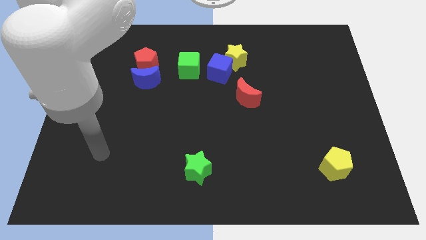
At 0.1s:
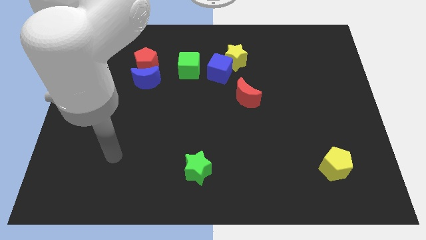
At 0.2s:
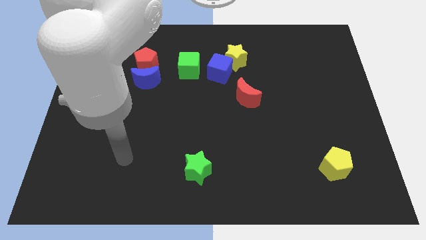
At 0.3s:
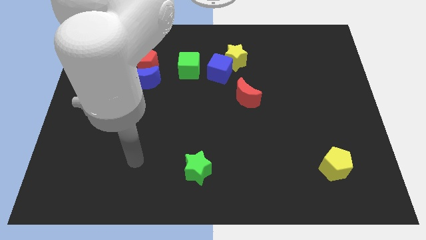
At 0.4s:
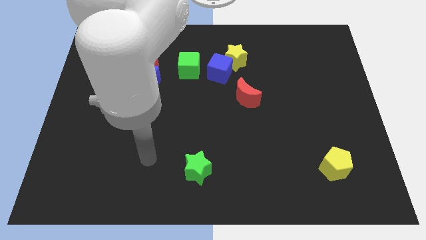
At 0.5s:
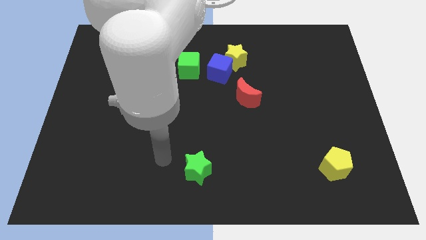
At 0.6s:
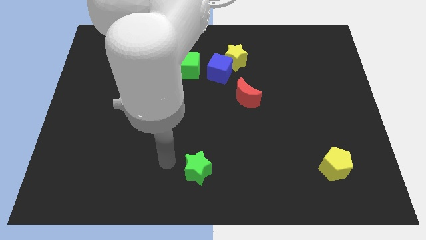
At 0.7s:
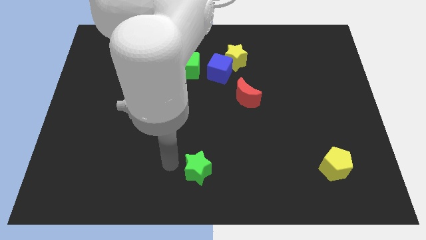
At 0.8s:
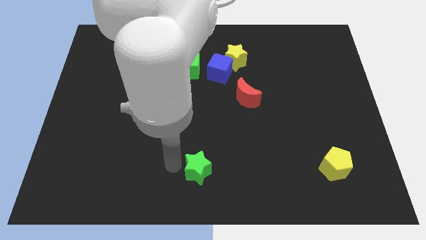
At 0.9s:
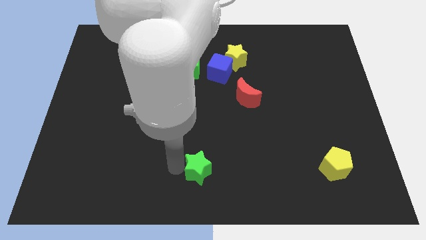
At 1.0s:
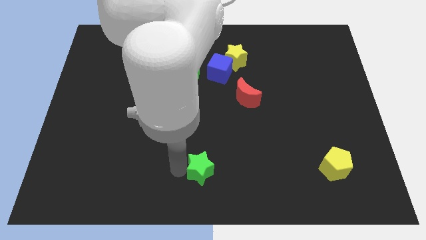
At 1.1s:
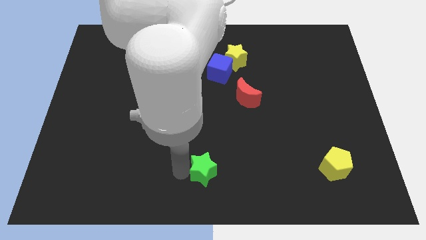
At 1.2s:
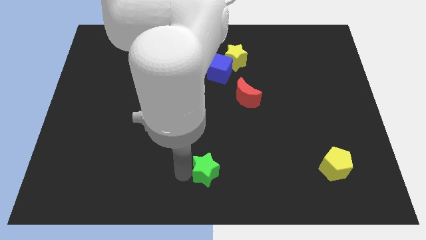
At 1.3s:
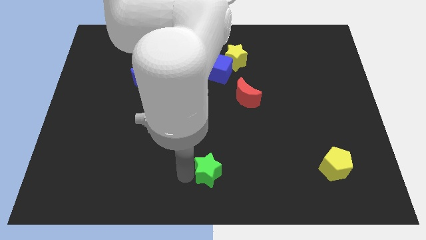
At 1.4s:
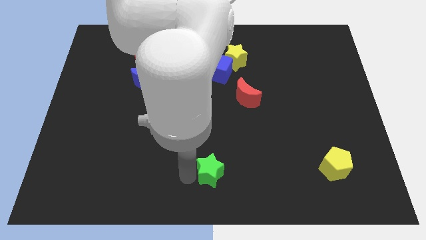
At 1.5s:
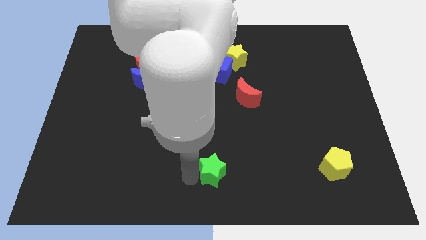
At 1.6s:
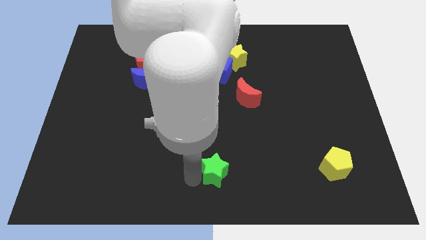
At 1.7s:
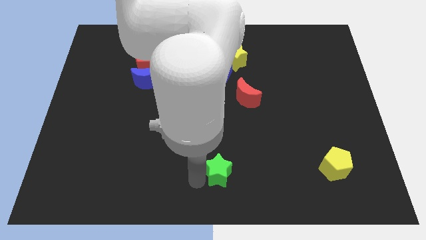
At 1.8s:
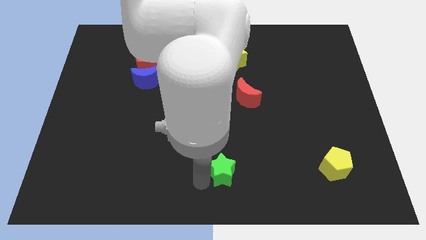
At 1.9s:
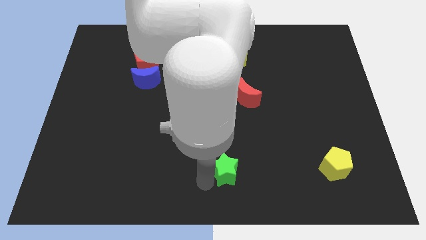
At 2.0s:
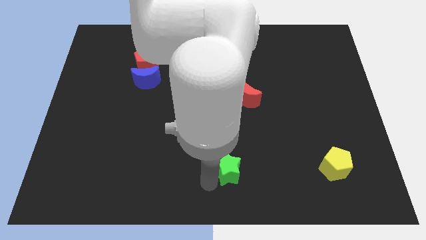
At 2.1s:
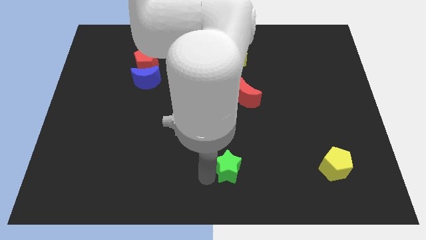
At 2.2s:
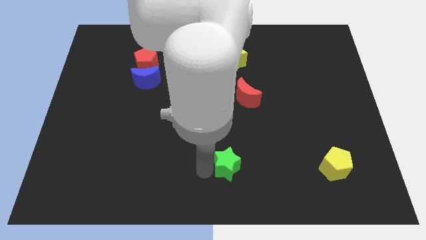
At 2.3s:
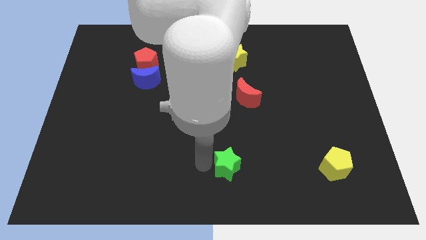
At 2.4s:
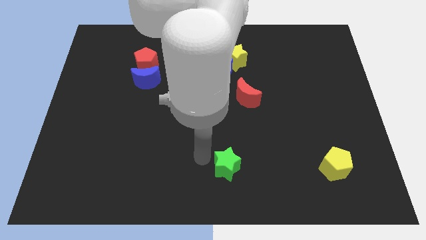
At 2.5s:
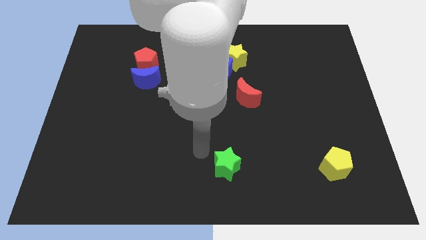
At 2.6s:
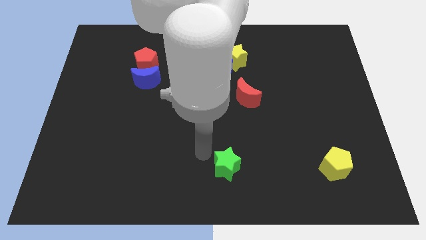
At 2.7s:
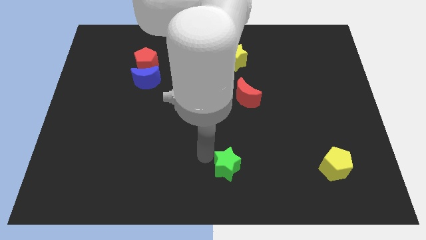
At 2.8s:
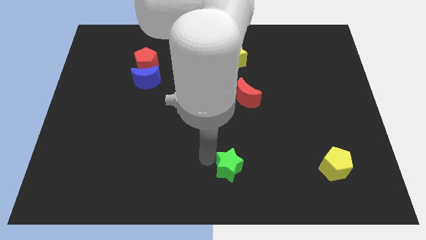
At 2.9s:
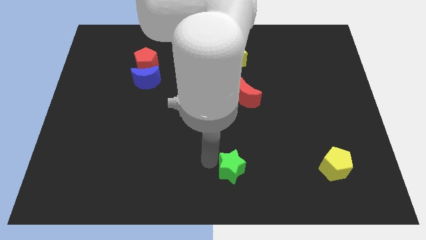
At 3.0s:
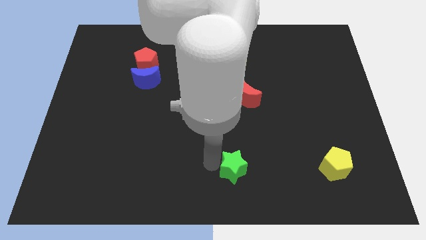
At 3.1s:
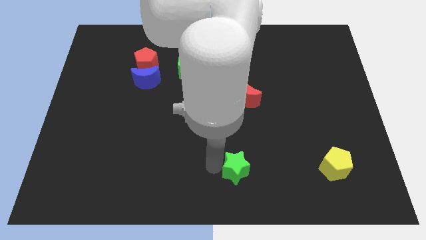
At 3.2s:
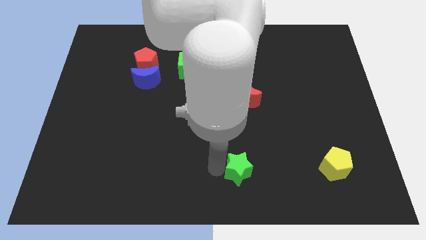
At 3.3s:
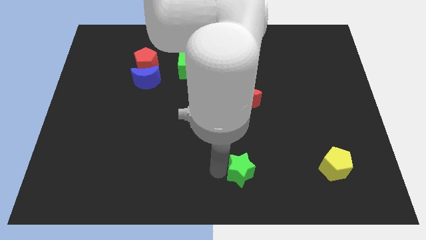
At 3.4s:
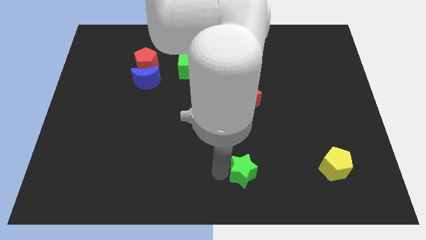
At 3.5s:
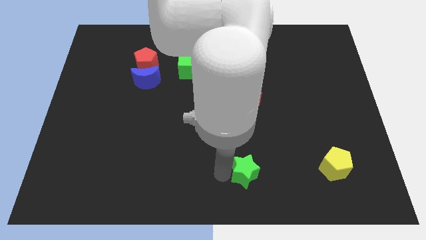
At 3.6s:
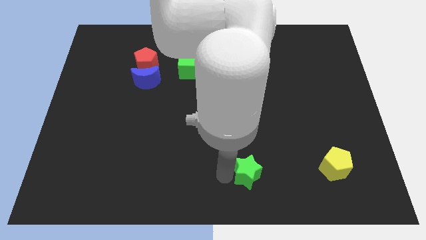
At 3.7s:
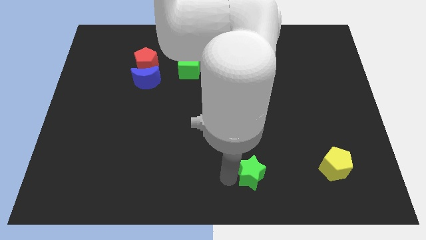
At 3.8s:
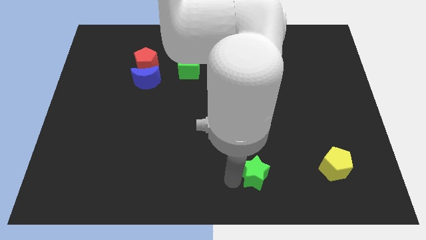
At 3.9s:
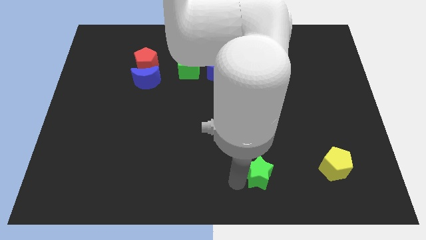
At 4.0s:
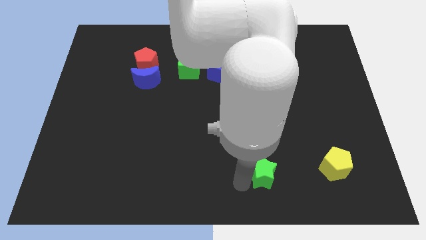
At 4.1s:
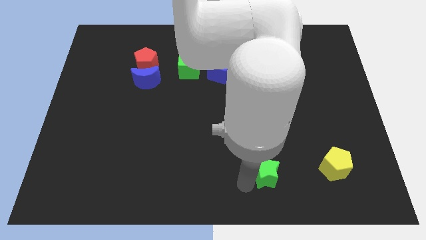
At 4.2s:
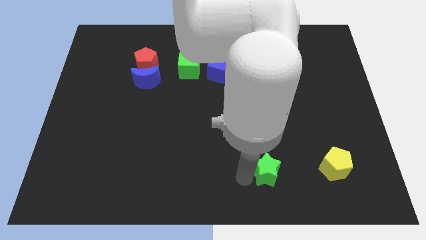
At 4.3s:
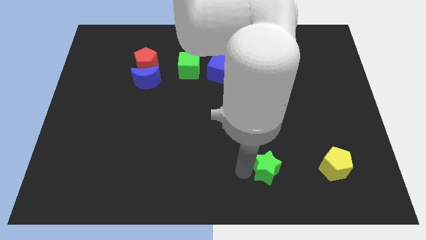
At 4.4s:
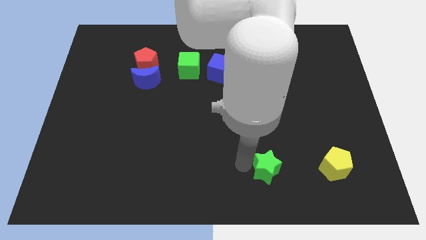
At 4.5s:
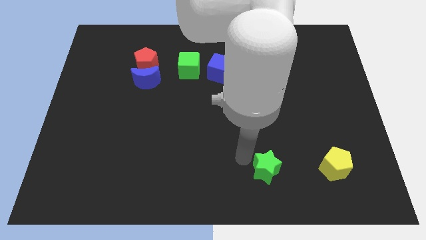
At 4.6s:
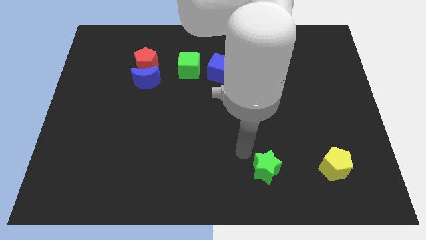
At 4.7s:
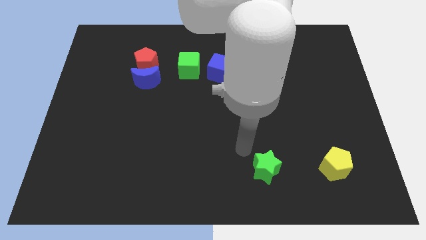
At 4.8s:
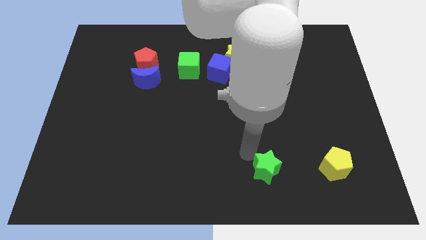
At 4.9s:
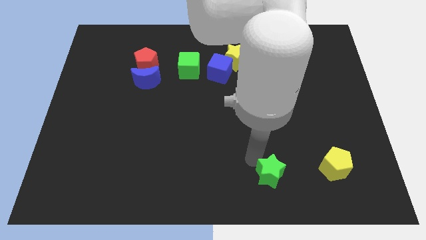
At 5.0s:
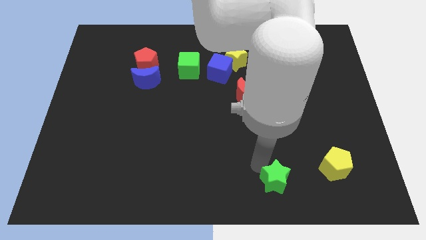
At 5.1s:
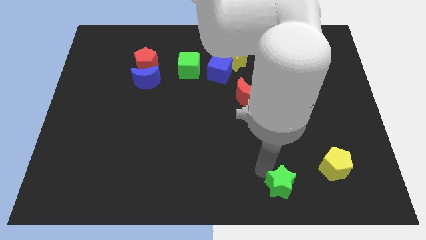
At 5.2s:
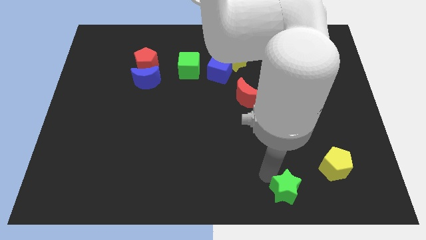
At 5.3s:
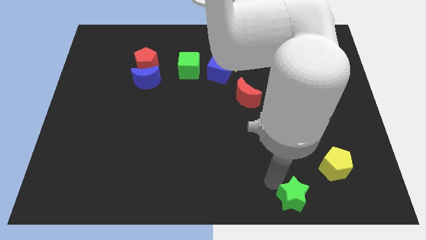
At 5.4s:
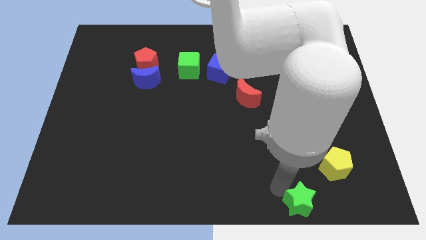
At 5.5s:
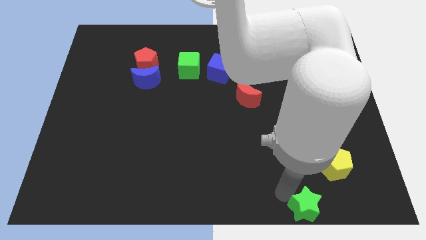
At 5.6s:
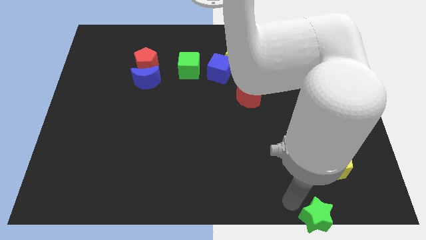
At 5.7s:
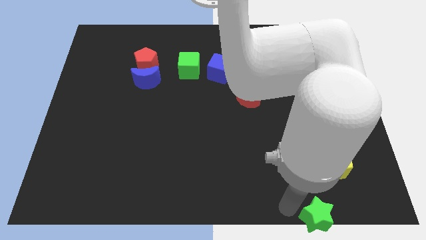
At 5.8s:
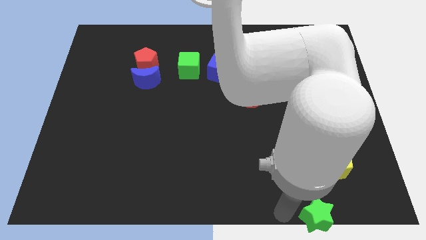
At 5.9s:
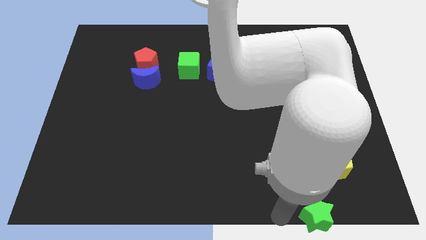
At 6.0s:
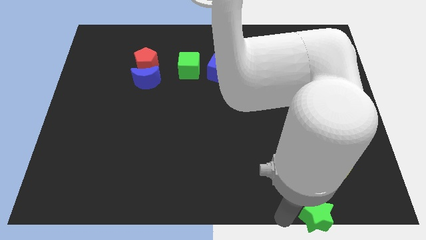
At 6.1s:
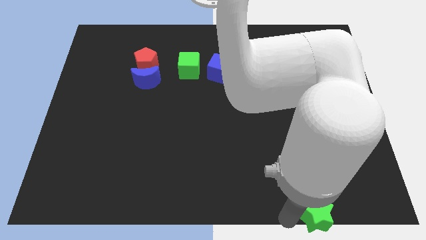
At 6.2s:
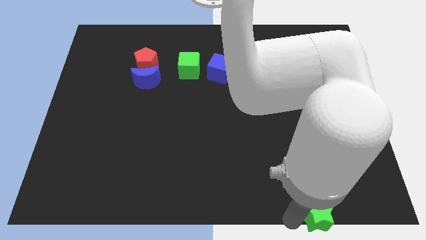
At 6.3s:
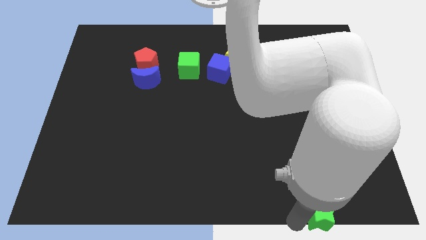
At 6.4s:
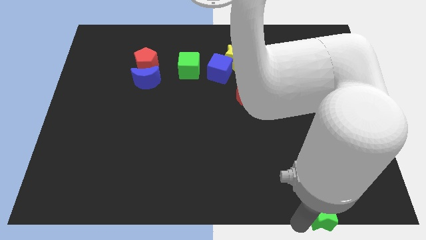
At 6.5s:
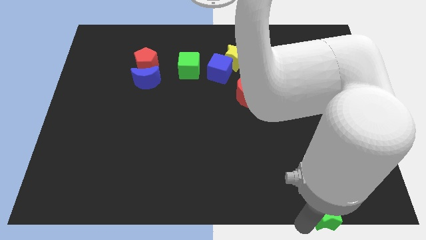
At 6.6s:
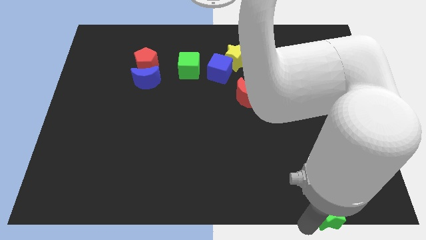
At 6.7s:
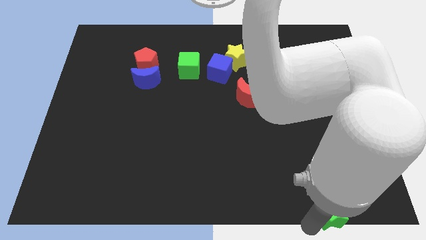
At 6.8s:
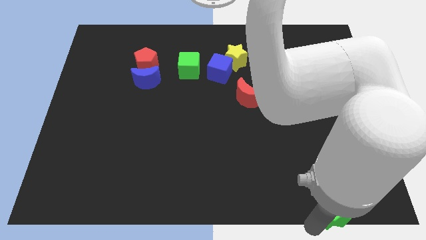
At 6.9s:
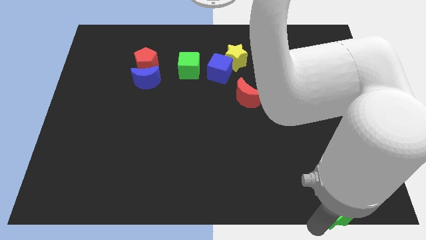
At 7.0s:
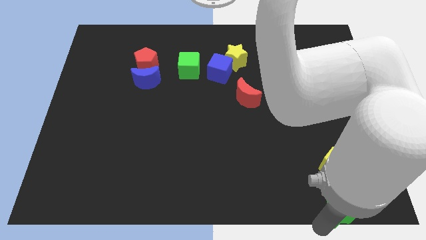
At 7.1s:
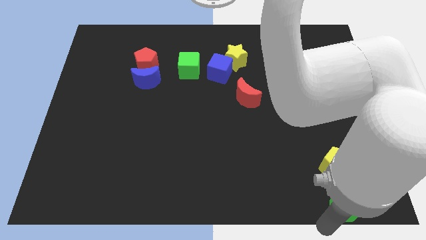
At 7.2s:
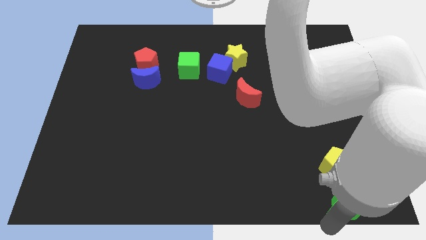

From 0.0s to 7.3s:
slide the green star to the bottom right corner
